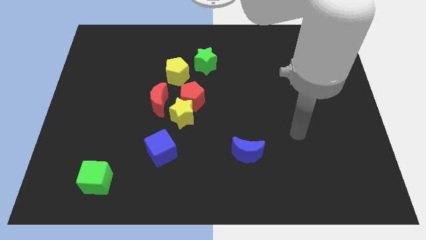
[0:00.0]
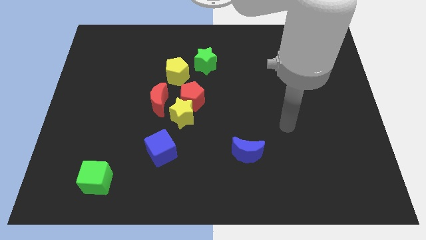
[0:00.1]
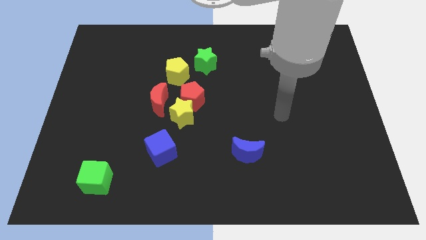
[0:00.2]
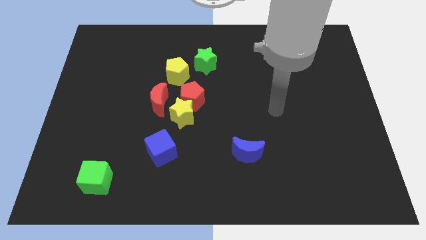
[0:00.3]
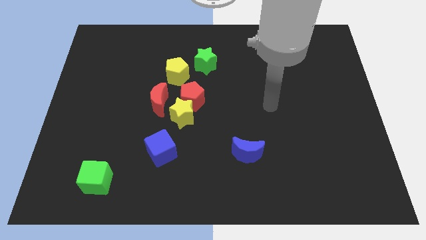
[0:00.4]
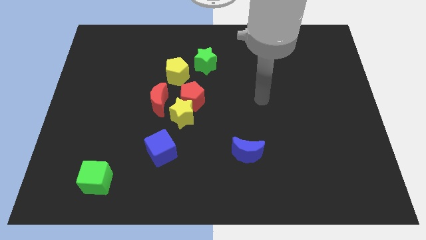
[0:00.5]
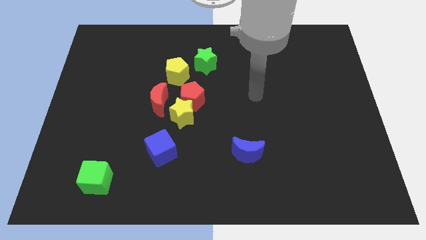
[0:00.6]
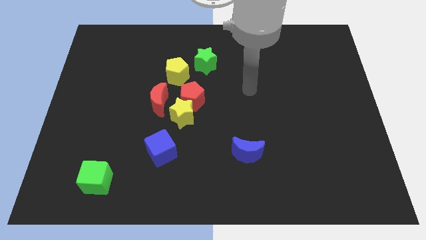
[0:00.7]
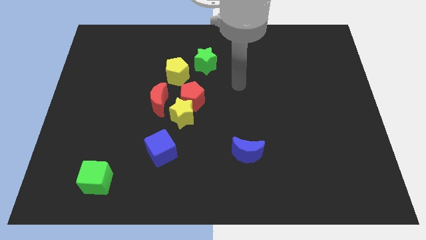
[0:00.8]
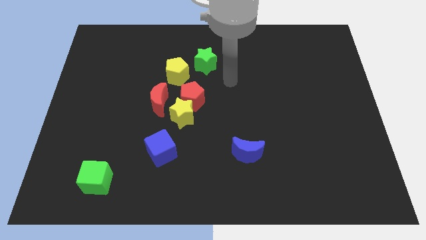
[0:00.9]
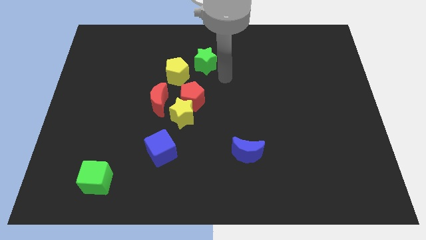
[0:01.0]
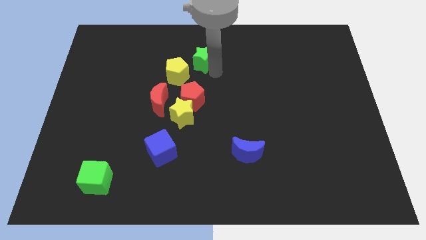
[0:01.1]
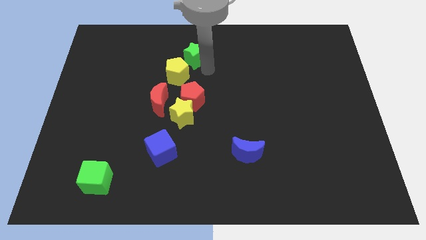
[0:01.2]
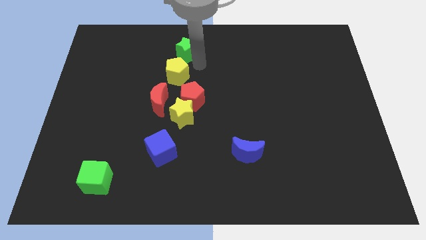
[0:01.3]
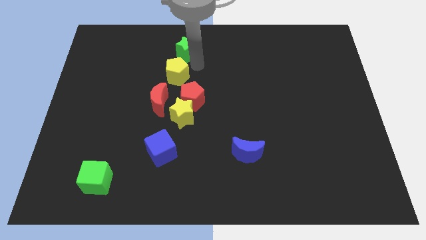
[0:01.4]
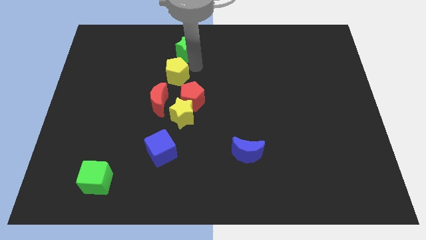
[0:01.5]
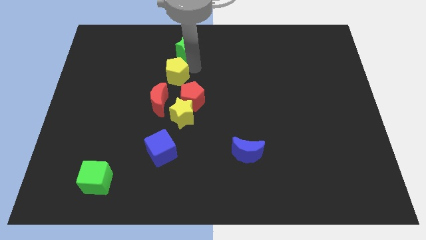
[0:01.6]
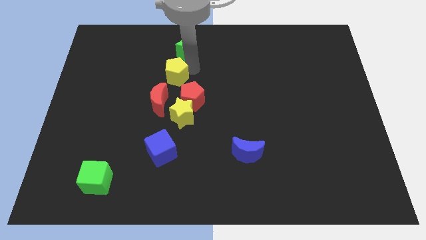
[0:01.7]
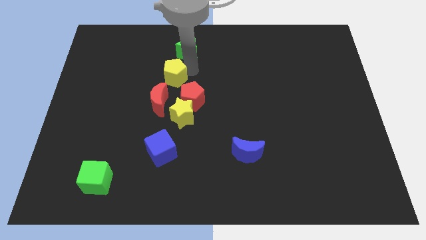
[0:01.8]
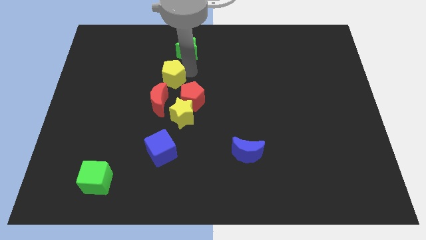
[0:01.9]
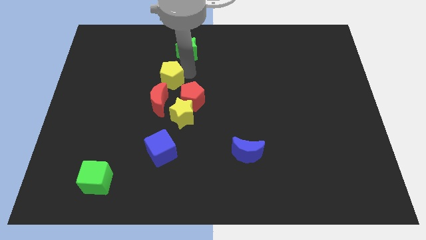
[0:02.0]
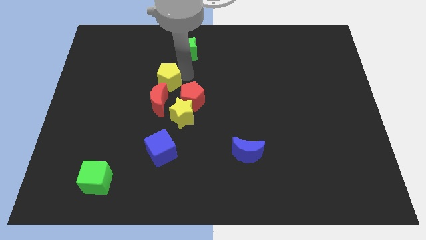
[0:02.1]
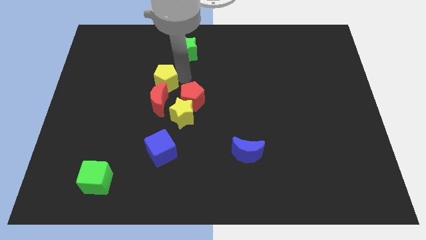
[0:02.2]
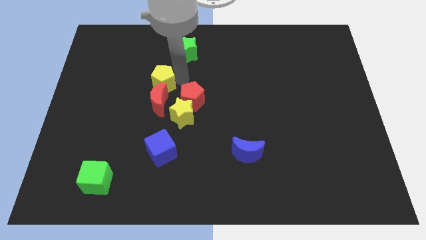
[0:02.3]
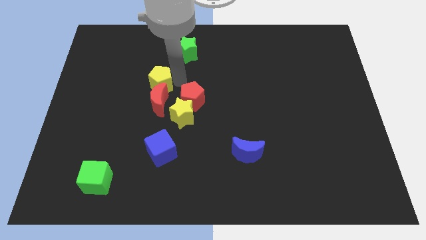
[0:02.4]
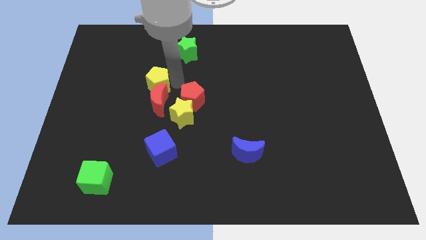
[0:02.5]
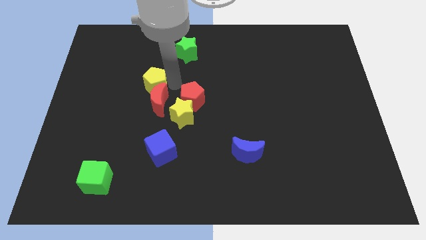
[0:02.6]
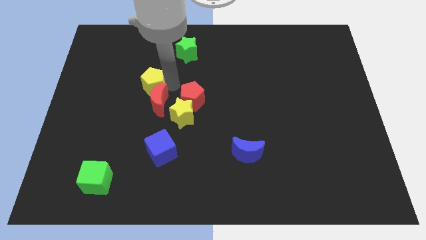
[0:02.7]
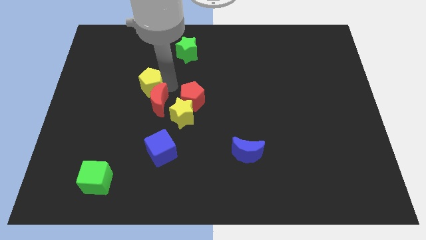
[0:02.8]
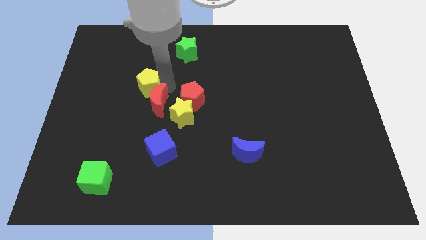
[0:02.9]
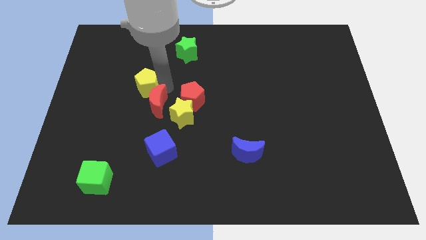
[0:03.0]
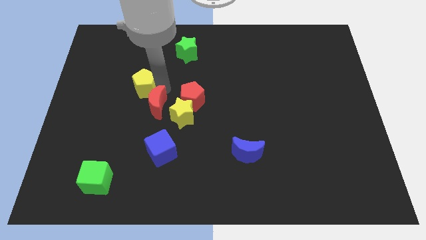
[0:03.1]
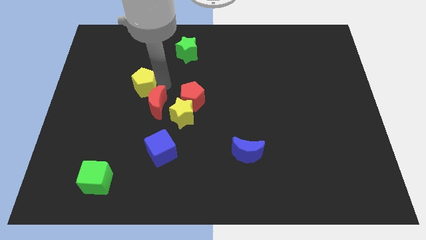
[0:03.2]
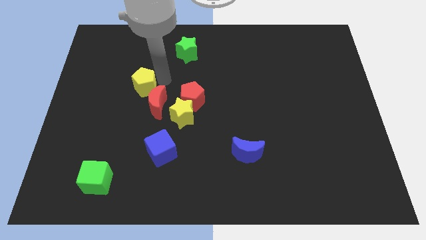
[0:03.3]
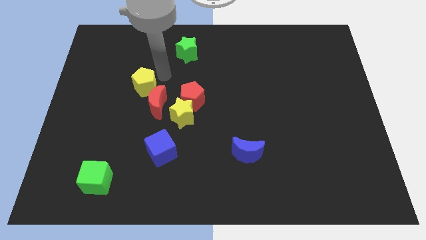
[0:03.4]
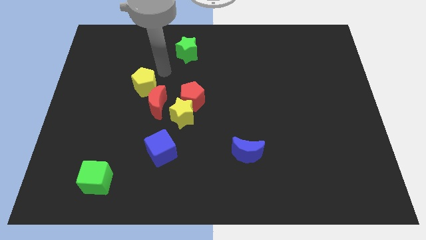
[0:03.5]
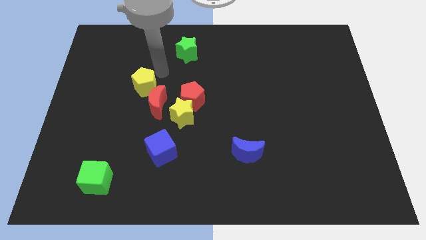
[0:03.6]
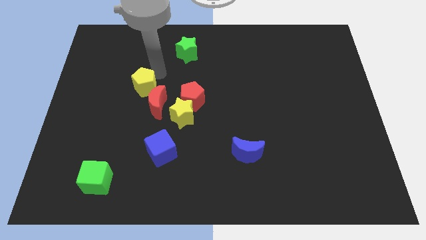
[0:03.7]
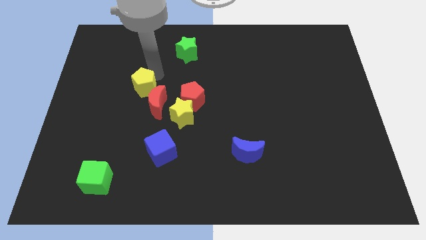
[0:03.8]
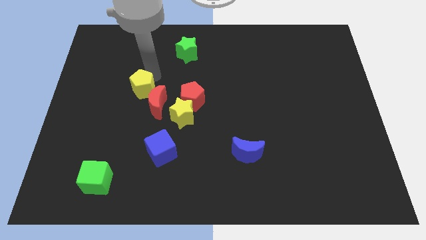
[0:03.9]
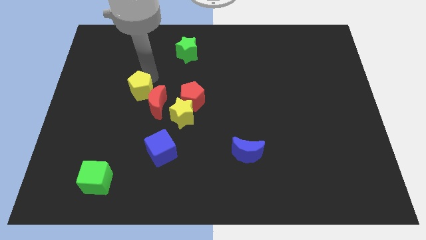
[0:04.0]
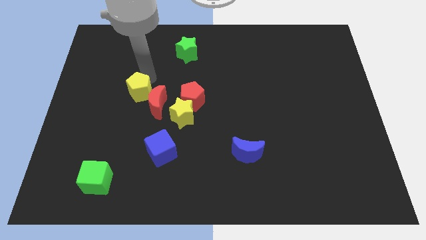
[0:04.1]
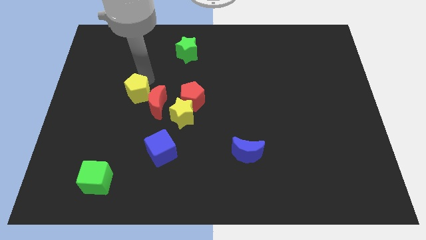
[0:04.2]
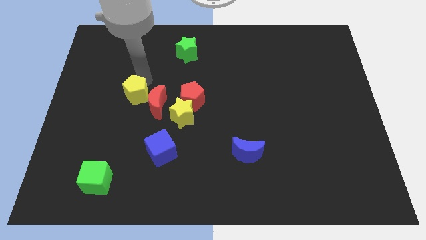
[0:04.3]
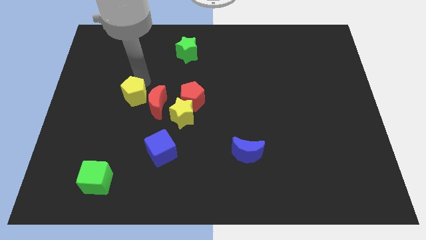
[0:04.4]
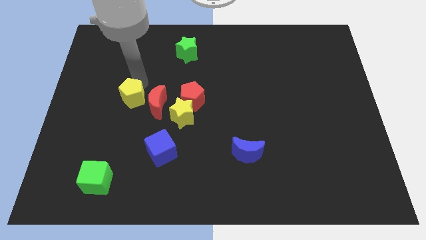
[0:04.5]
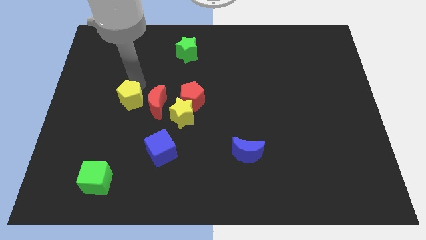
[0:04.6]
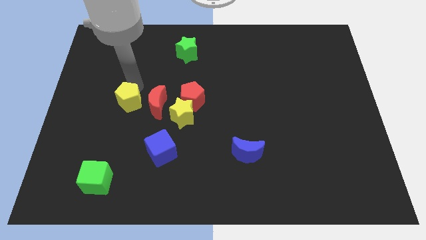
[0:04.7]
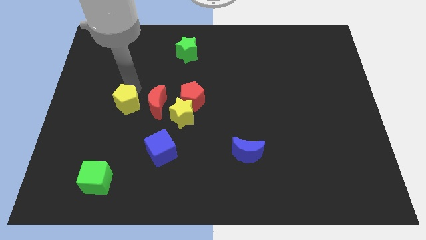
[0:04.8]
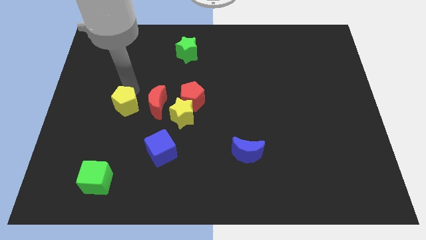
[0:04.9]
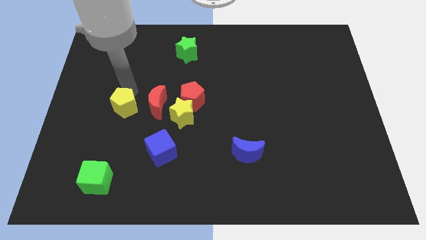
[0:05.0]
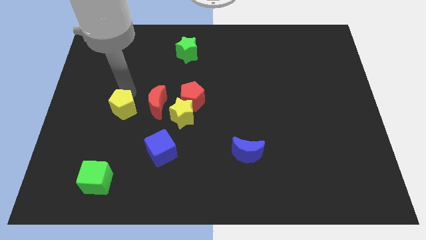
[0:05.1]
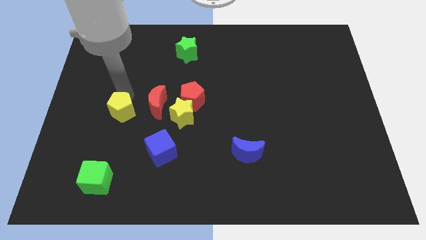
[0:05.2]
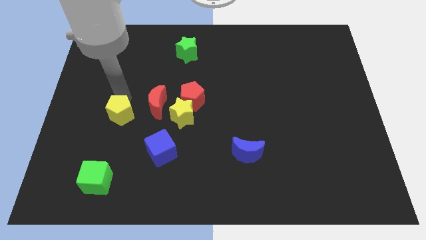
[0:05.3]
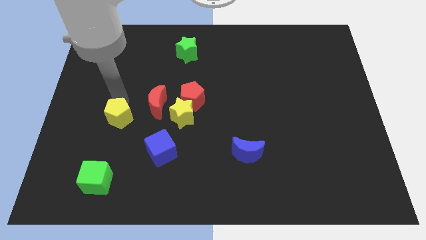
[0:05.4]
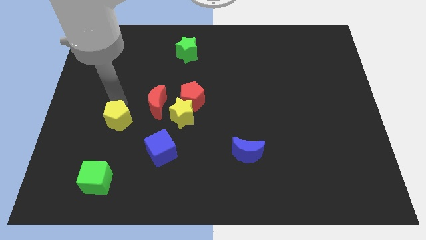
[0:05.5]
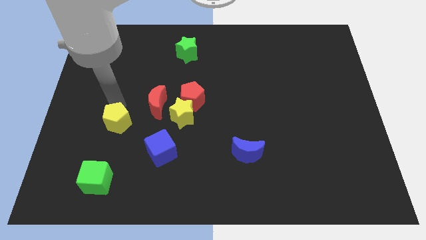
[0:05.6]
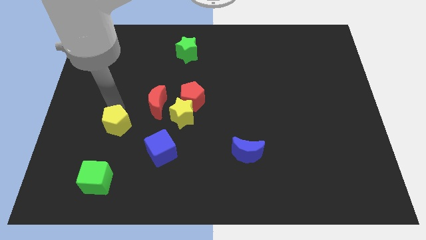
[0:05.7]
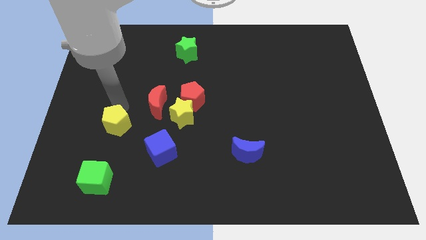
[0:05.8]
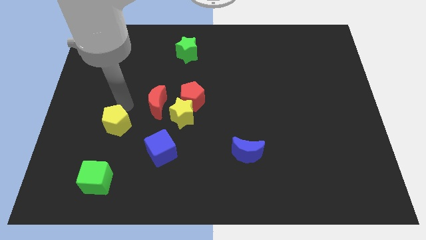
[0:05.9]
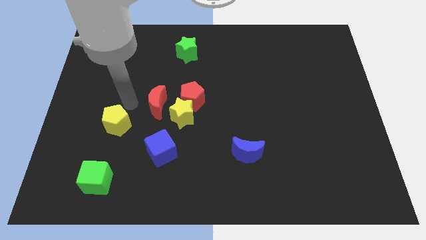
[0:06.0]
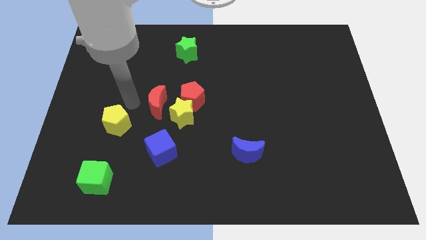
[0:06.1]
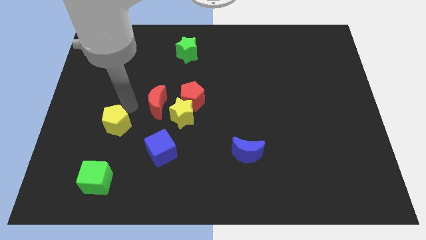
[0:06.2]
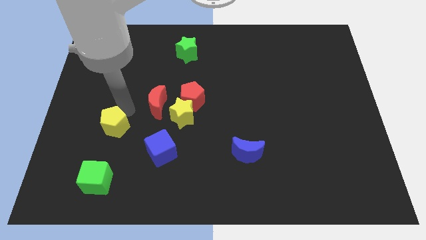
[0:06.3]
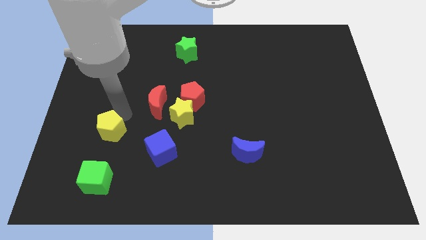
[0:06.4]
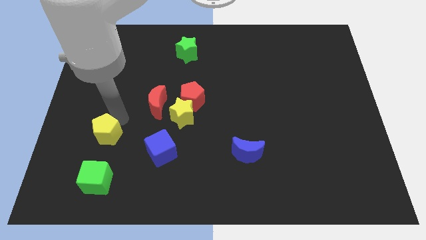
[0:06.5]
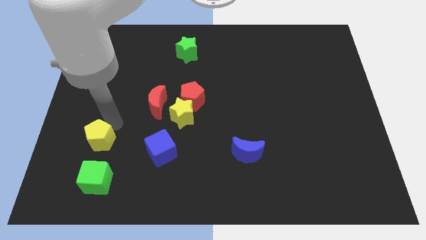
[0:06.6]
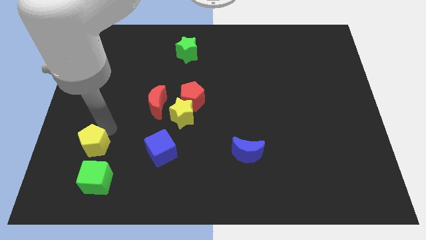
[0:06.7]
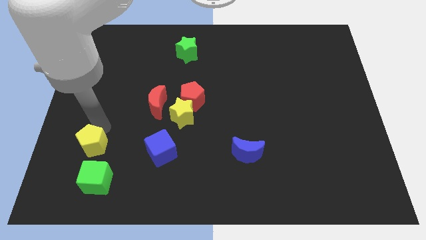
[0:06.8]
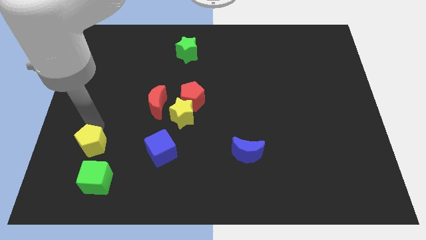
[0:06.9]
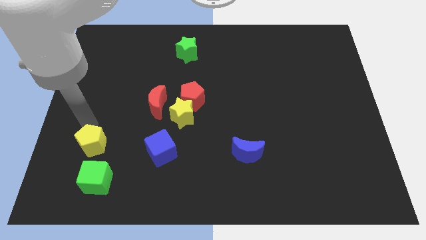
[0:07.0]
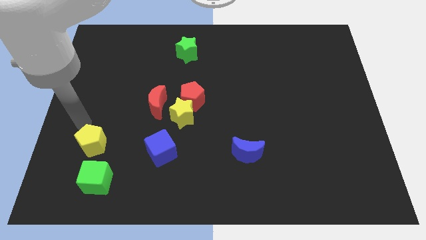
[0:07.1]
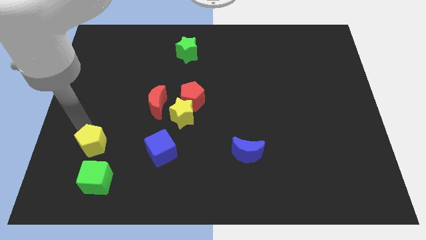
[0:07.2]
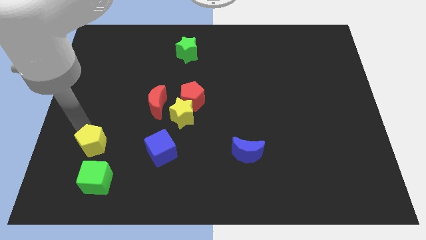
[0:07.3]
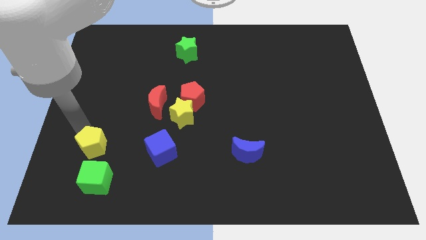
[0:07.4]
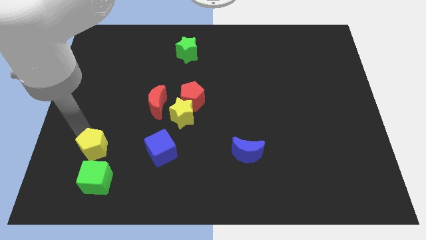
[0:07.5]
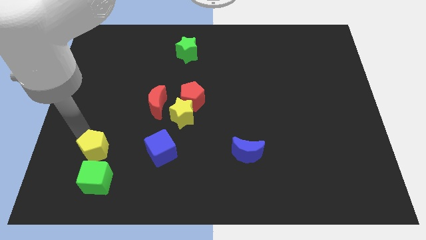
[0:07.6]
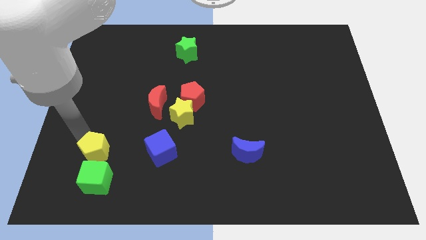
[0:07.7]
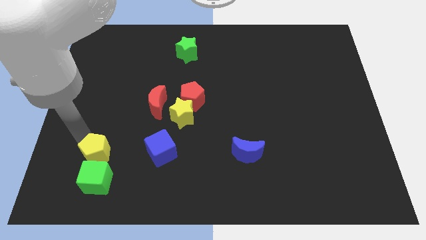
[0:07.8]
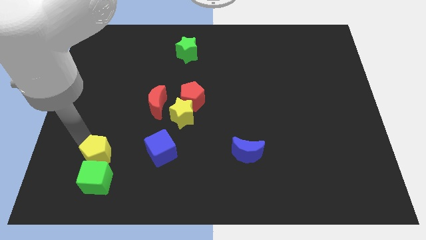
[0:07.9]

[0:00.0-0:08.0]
slide the yellow pentagon next to the green cube

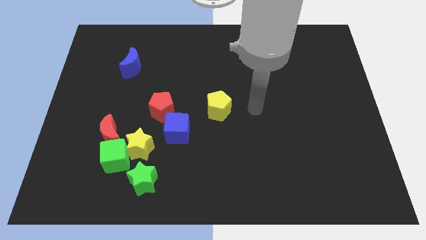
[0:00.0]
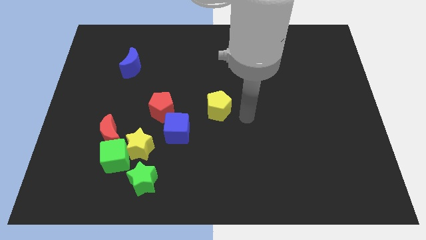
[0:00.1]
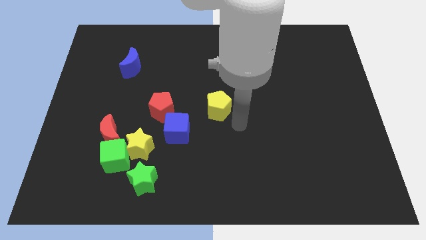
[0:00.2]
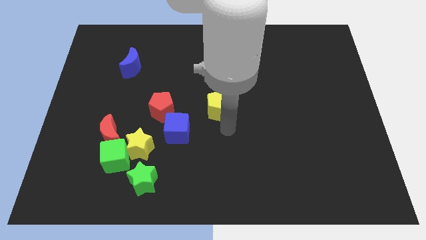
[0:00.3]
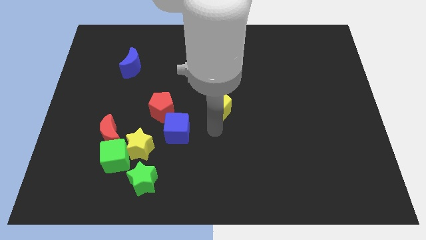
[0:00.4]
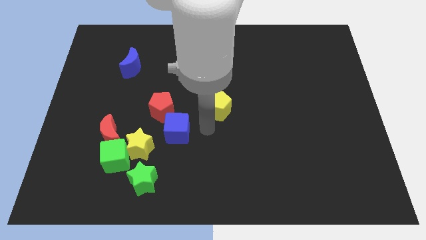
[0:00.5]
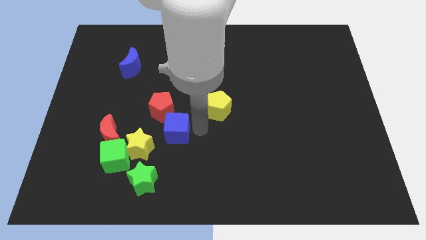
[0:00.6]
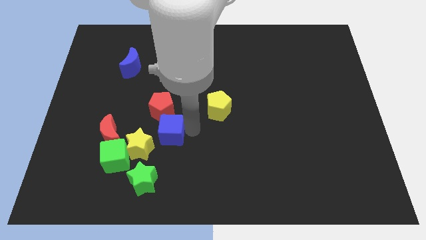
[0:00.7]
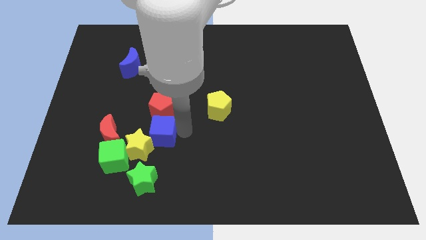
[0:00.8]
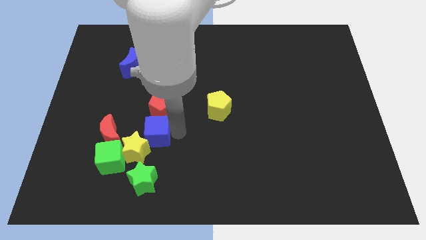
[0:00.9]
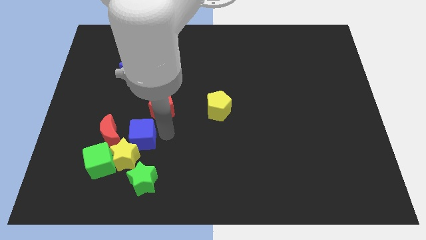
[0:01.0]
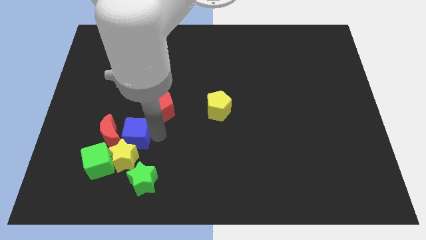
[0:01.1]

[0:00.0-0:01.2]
slide the blue cube close to the red moon
